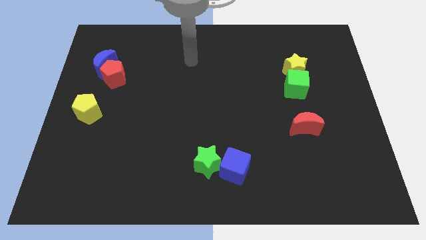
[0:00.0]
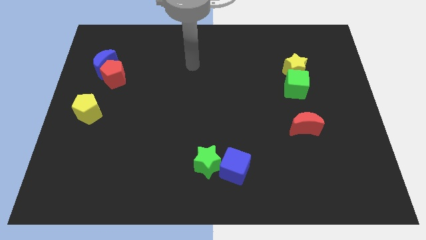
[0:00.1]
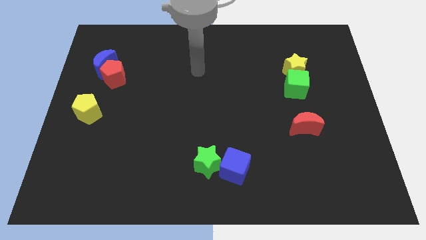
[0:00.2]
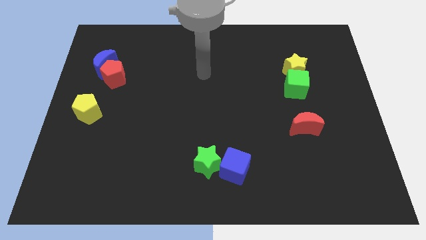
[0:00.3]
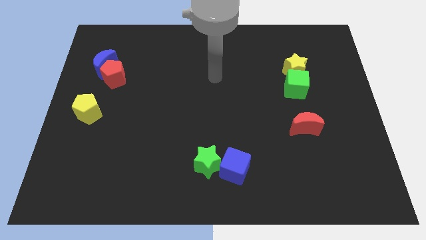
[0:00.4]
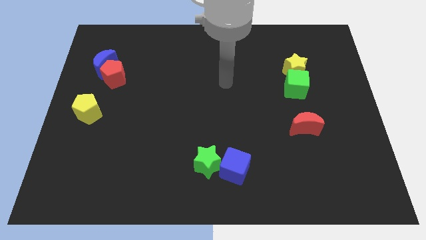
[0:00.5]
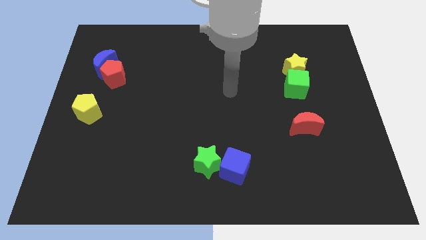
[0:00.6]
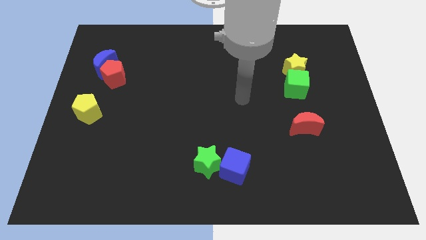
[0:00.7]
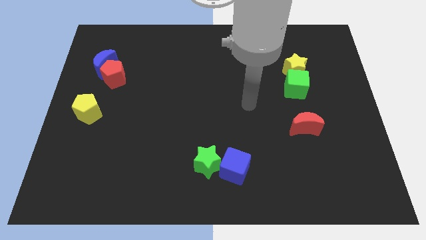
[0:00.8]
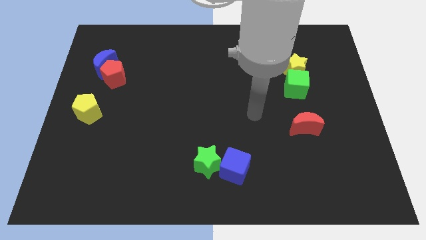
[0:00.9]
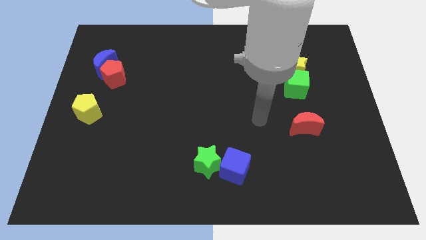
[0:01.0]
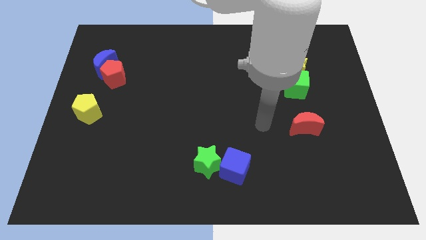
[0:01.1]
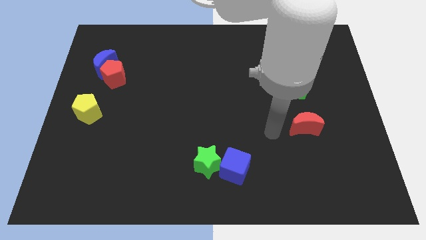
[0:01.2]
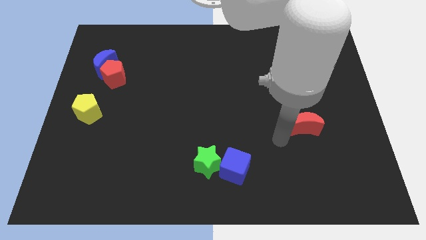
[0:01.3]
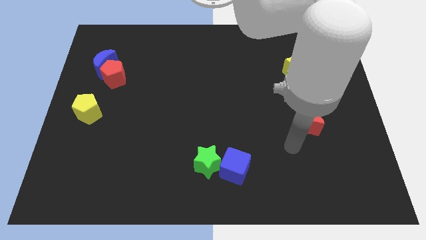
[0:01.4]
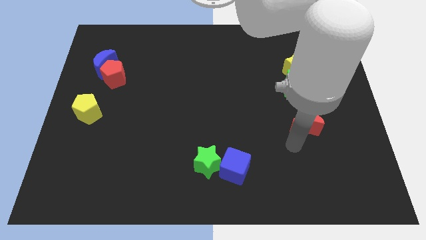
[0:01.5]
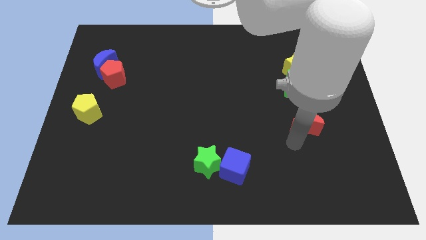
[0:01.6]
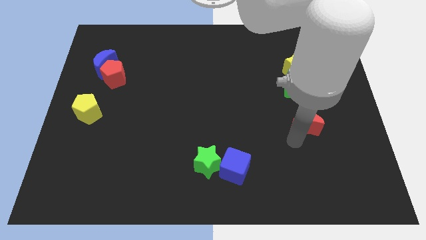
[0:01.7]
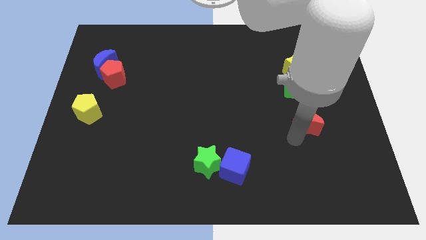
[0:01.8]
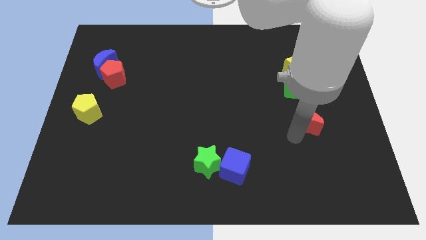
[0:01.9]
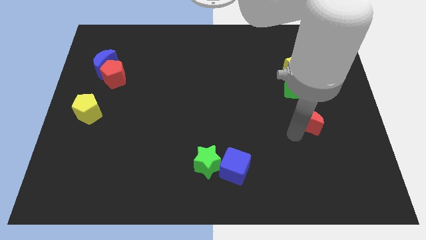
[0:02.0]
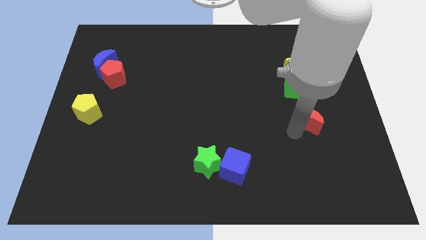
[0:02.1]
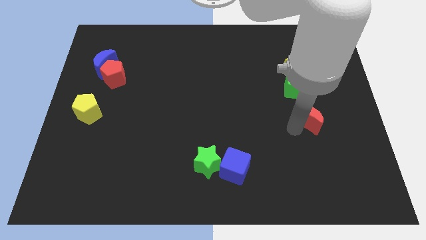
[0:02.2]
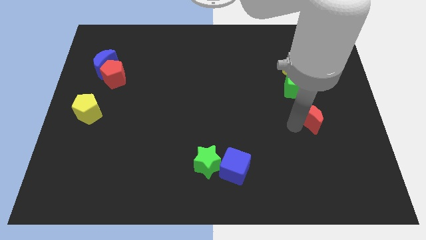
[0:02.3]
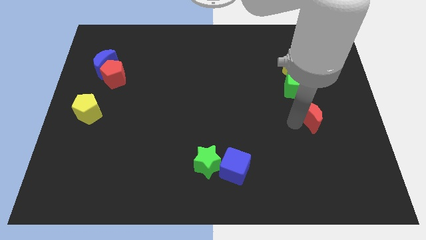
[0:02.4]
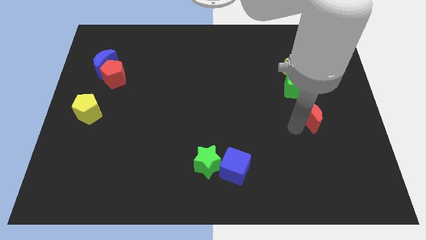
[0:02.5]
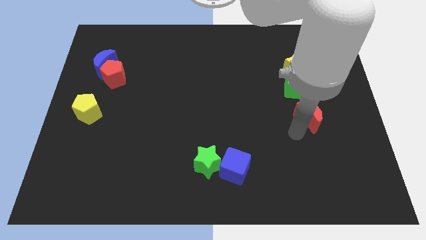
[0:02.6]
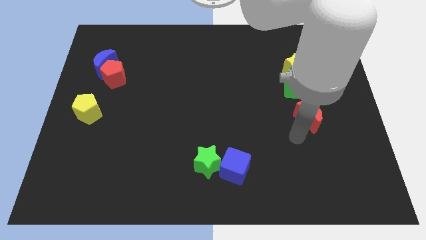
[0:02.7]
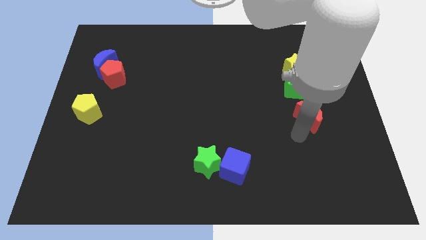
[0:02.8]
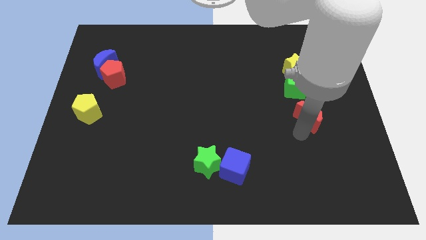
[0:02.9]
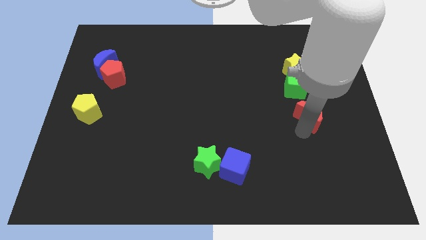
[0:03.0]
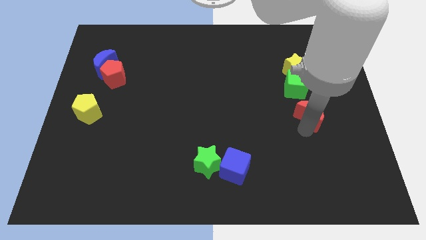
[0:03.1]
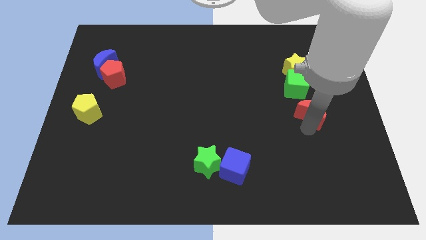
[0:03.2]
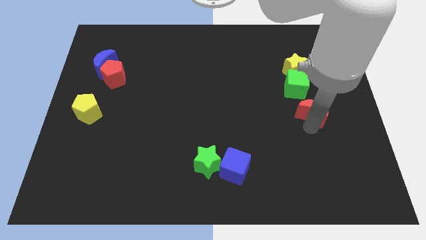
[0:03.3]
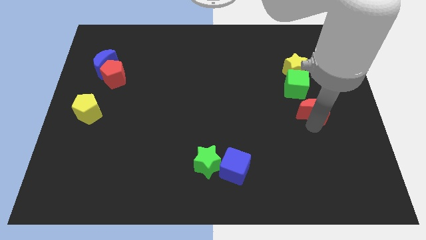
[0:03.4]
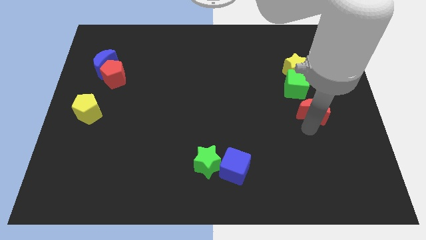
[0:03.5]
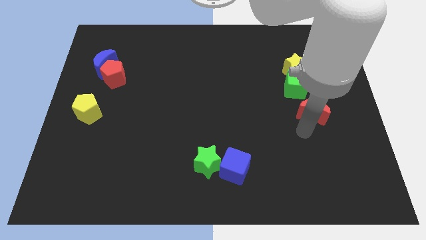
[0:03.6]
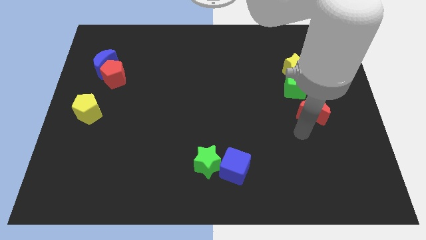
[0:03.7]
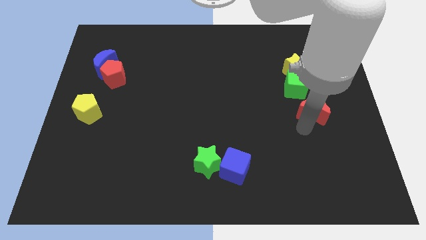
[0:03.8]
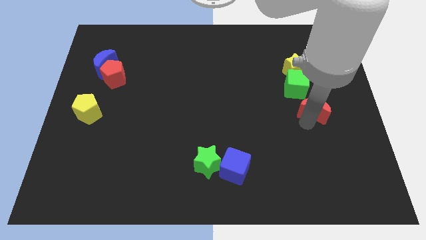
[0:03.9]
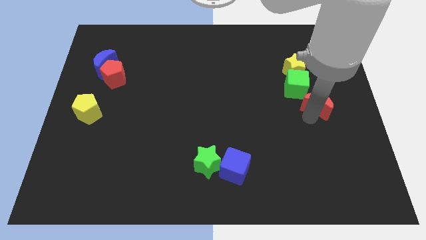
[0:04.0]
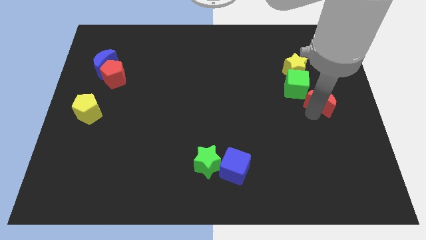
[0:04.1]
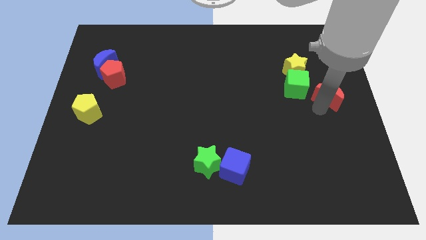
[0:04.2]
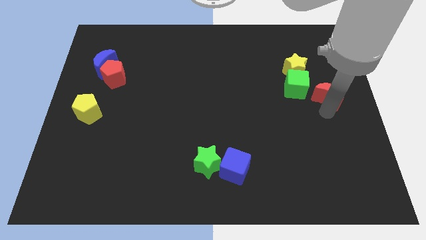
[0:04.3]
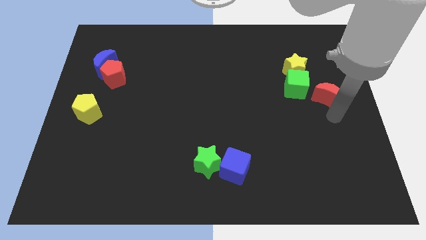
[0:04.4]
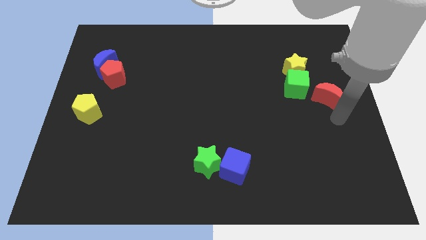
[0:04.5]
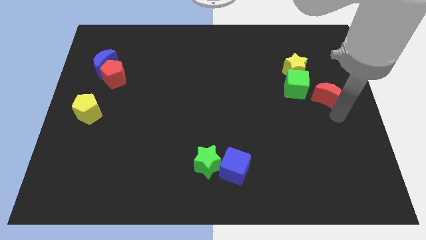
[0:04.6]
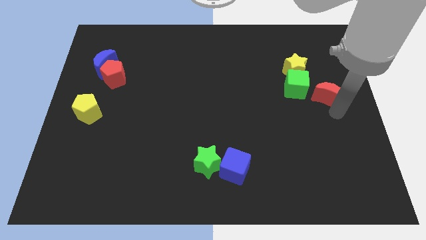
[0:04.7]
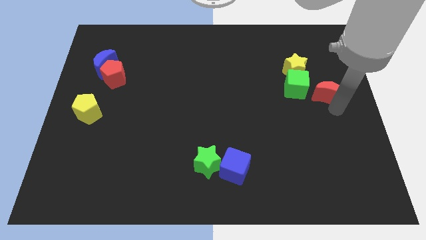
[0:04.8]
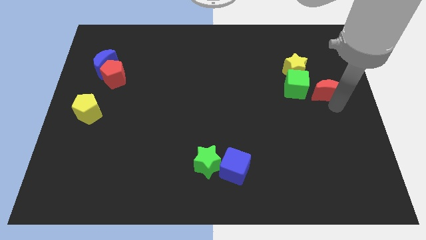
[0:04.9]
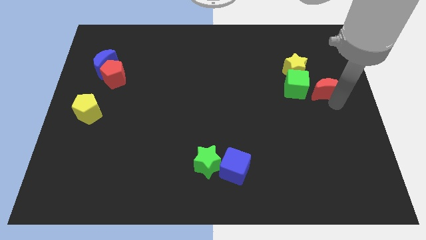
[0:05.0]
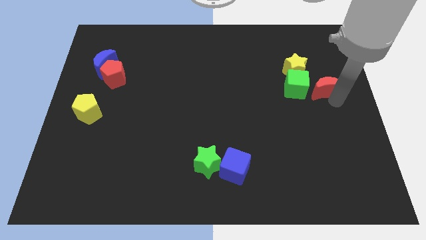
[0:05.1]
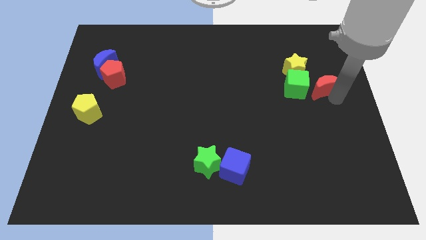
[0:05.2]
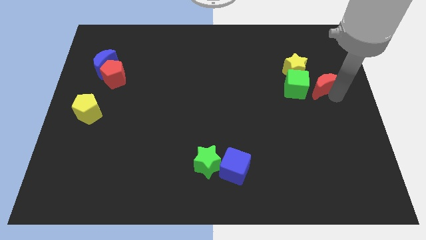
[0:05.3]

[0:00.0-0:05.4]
slide the red moon to the top right of the green cube

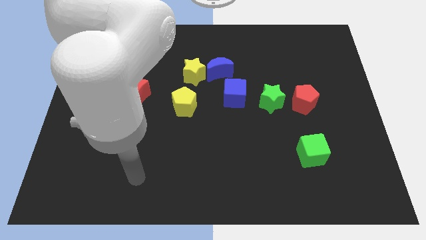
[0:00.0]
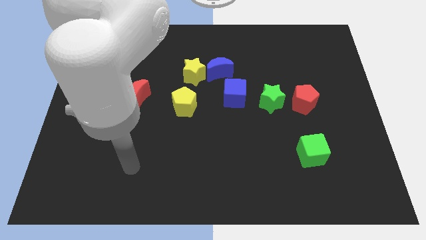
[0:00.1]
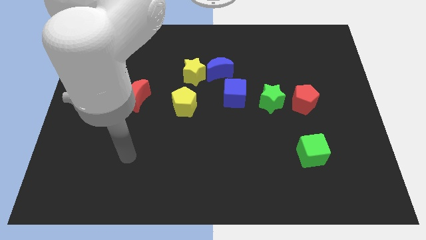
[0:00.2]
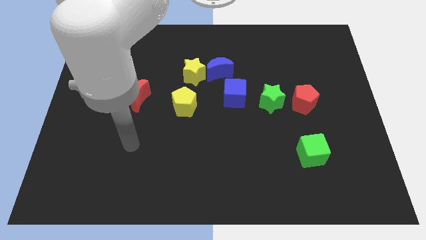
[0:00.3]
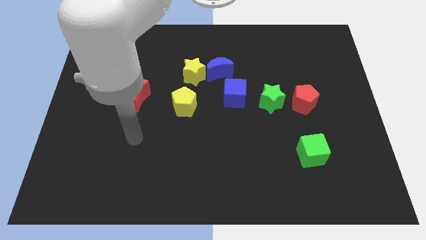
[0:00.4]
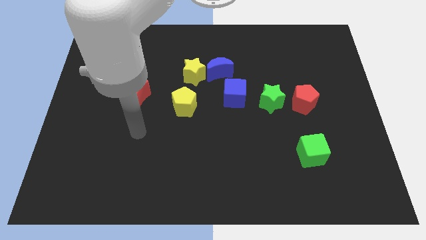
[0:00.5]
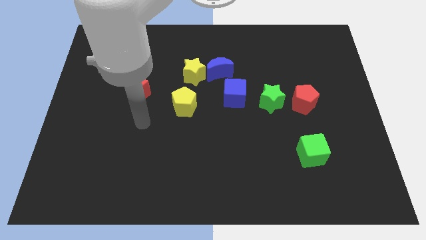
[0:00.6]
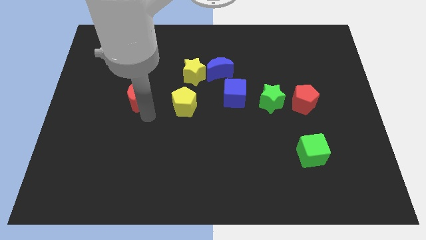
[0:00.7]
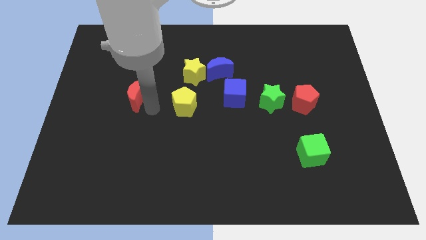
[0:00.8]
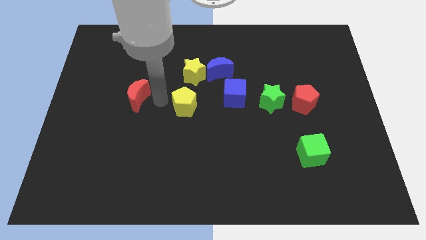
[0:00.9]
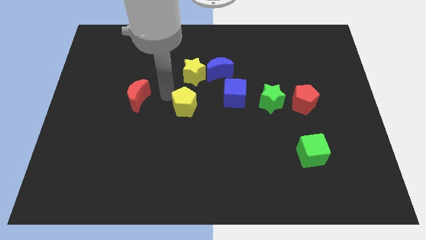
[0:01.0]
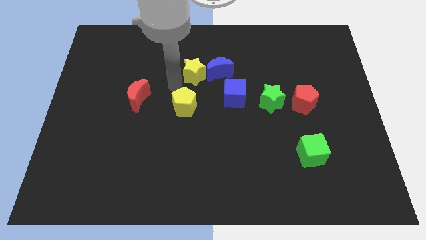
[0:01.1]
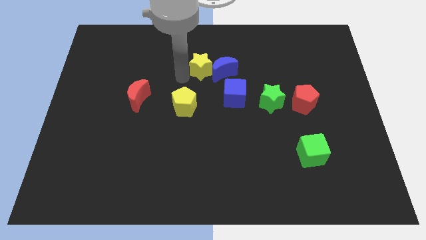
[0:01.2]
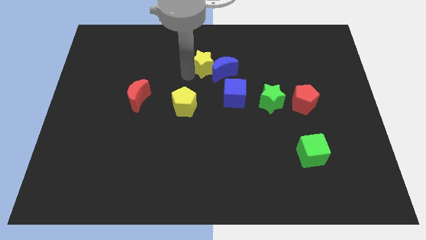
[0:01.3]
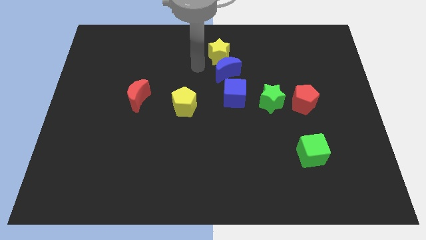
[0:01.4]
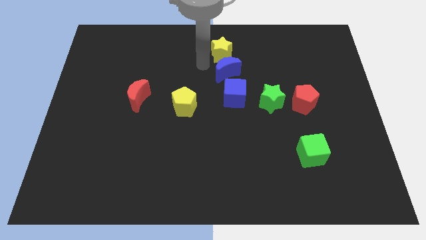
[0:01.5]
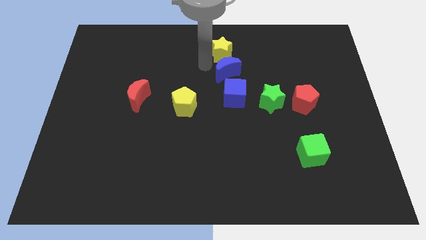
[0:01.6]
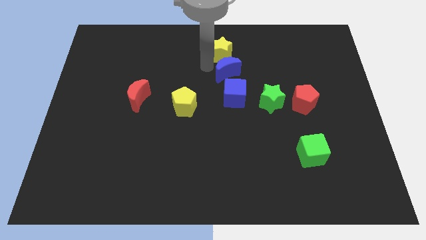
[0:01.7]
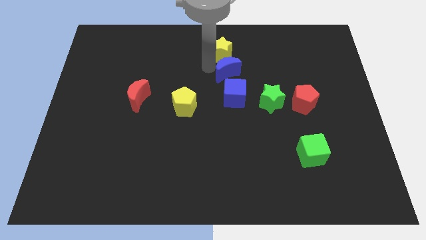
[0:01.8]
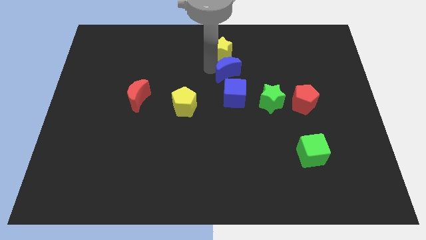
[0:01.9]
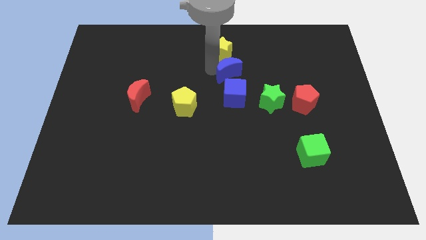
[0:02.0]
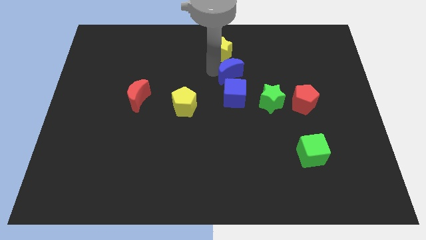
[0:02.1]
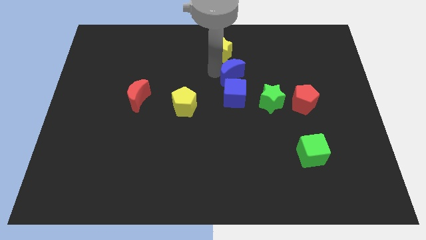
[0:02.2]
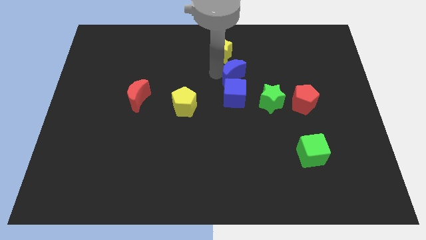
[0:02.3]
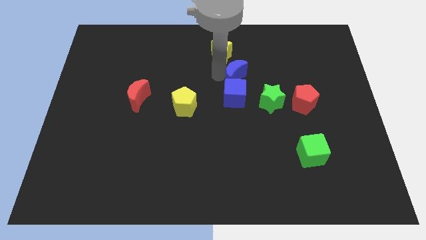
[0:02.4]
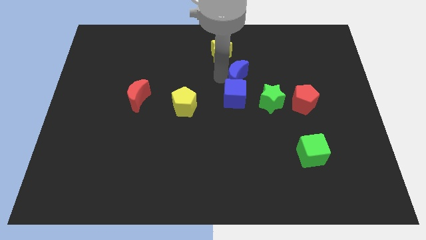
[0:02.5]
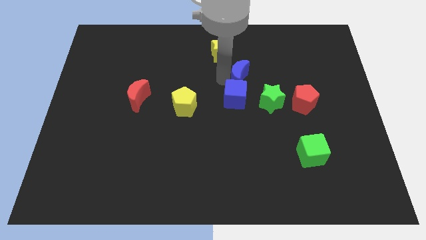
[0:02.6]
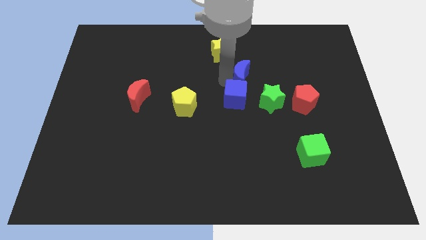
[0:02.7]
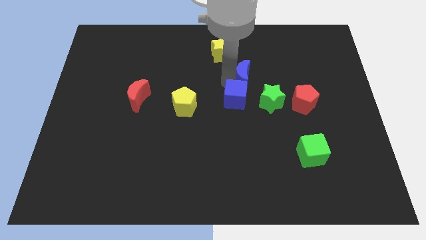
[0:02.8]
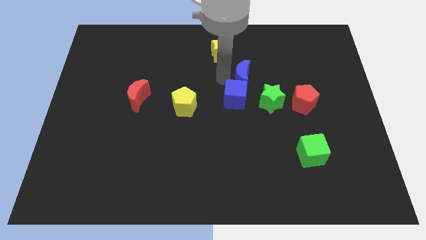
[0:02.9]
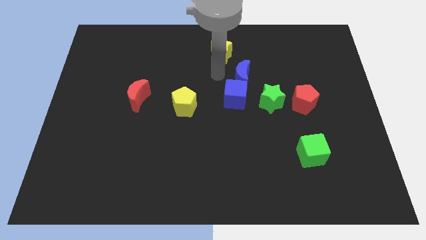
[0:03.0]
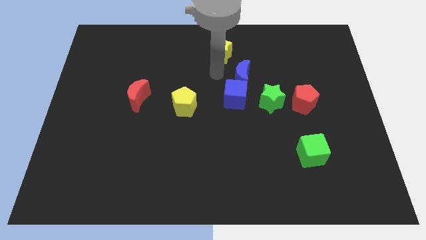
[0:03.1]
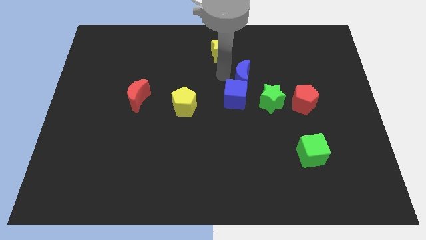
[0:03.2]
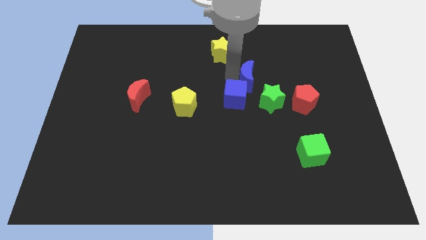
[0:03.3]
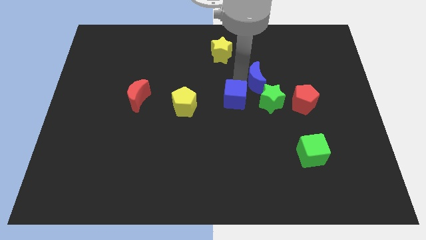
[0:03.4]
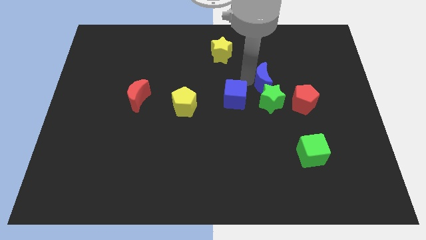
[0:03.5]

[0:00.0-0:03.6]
put the blue moon to the top left of the red pentagon
